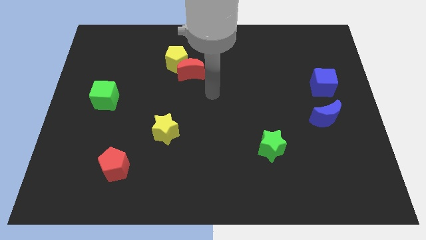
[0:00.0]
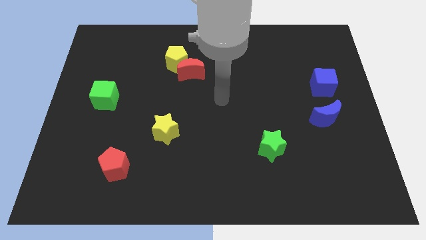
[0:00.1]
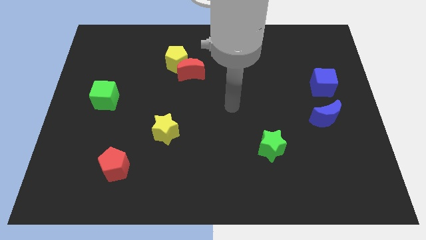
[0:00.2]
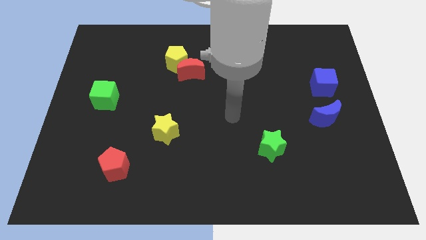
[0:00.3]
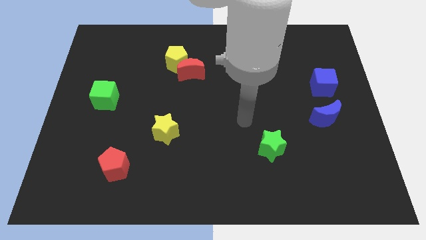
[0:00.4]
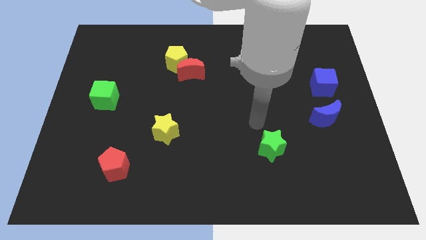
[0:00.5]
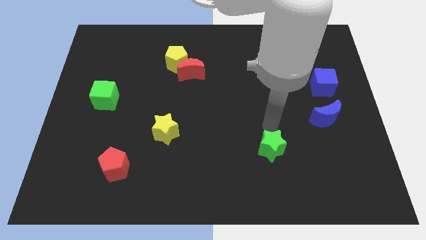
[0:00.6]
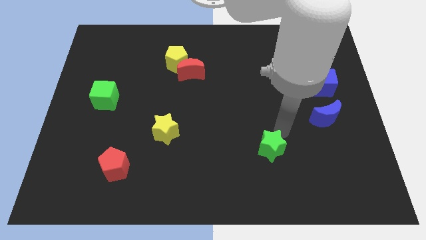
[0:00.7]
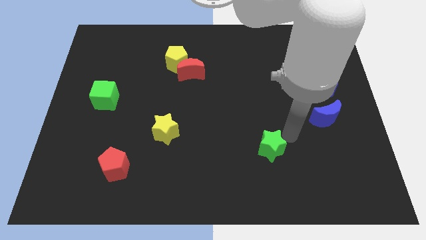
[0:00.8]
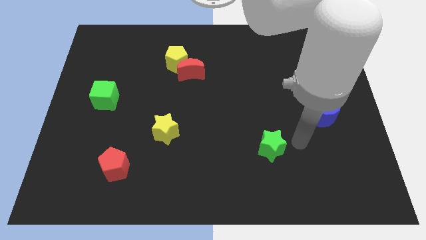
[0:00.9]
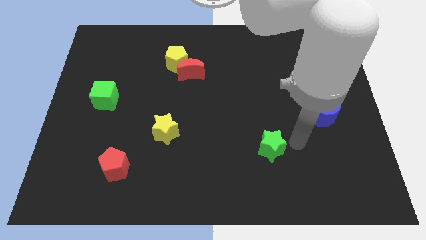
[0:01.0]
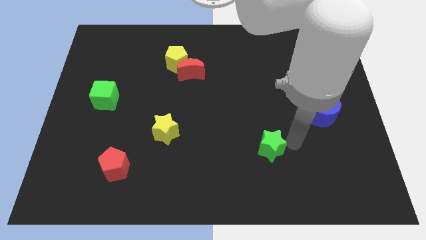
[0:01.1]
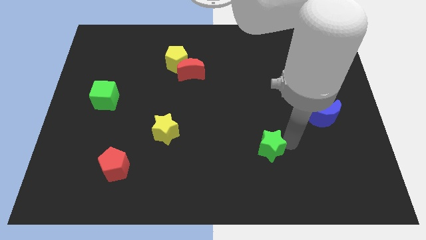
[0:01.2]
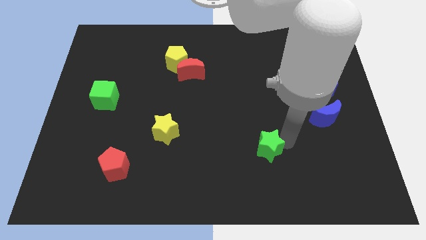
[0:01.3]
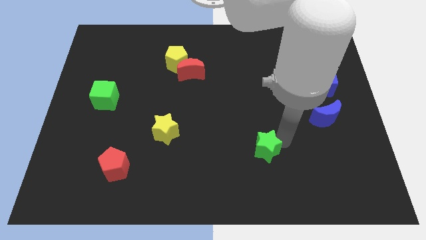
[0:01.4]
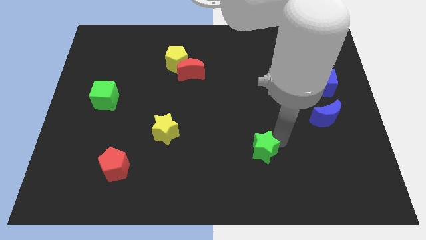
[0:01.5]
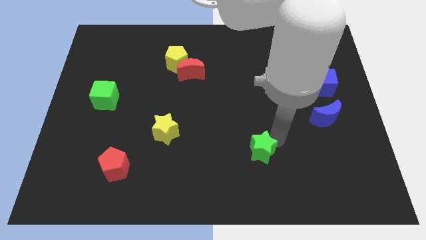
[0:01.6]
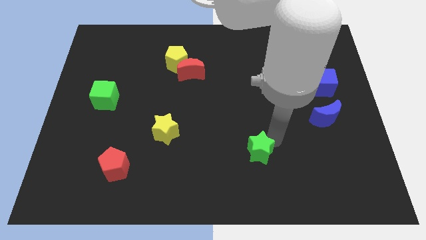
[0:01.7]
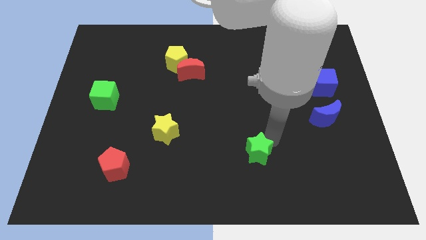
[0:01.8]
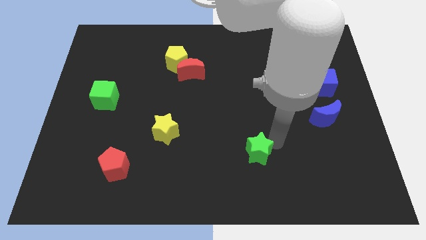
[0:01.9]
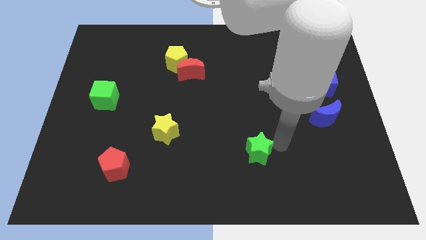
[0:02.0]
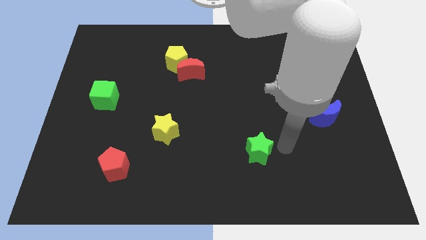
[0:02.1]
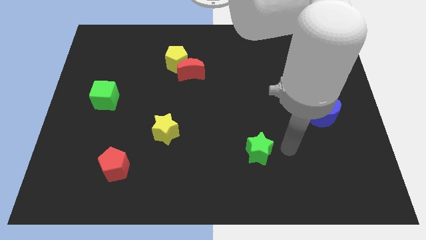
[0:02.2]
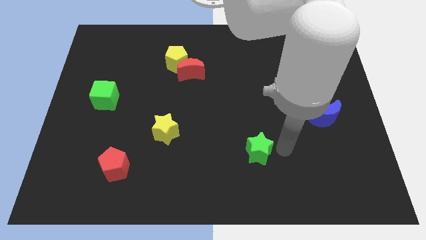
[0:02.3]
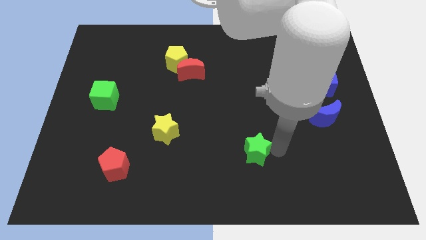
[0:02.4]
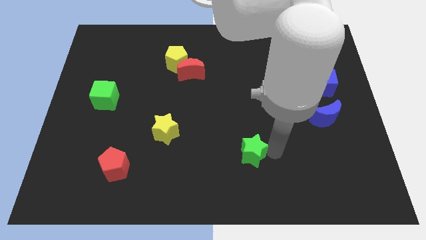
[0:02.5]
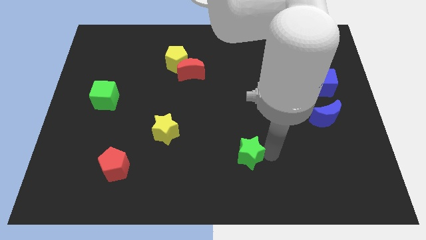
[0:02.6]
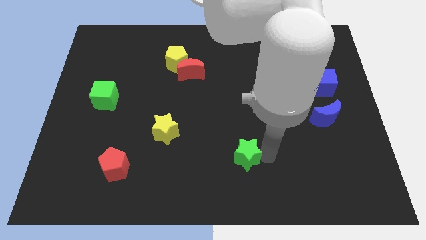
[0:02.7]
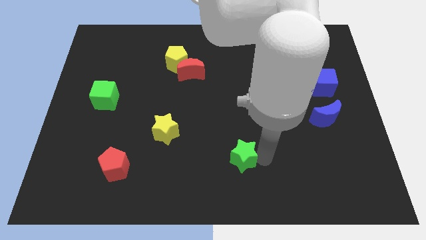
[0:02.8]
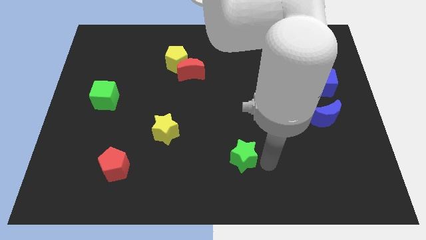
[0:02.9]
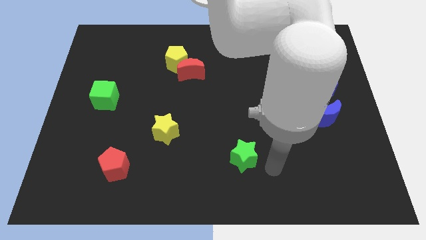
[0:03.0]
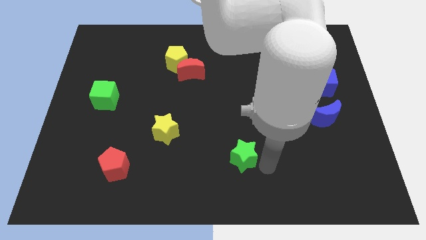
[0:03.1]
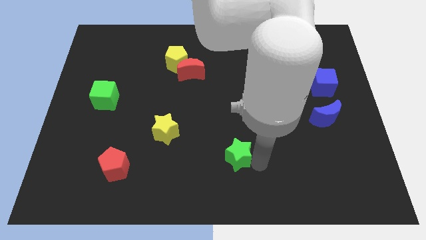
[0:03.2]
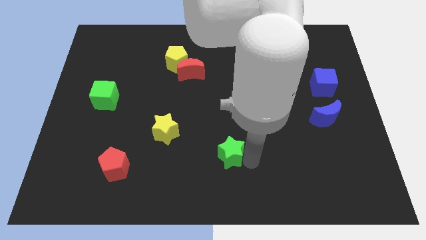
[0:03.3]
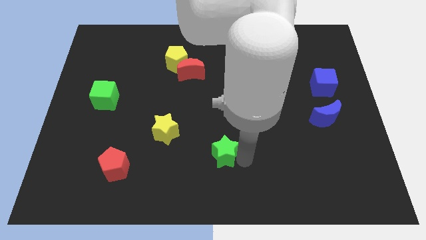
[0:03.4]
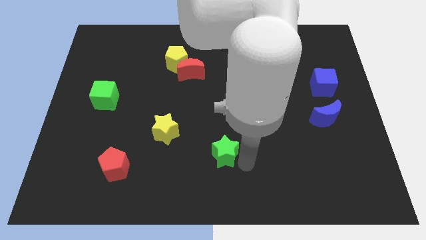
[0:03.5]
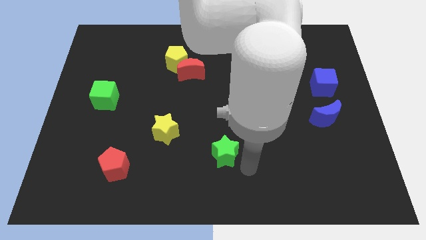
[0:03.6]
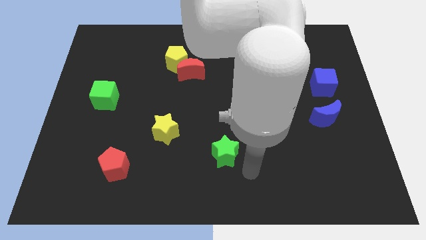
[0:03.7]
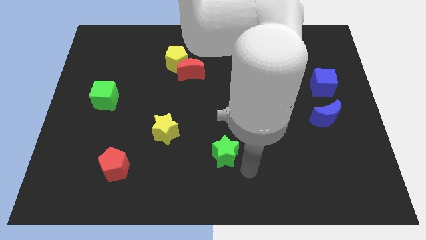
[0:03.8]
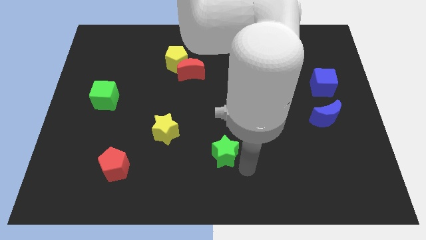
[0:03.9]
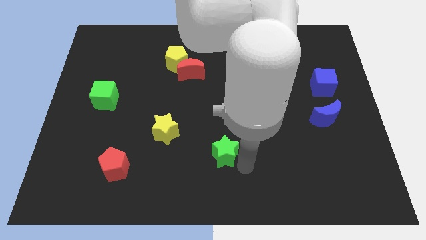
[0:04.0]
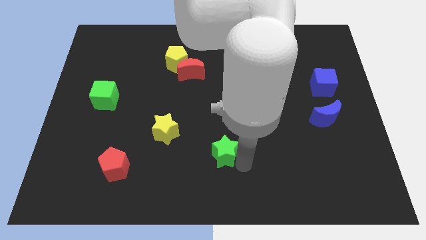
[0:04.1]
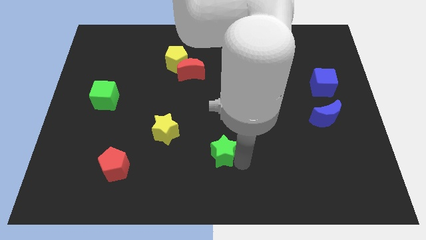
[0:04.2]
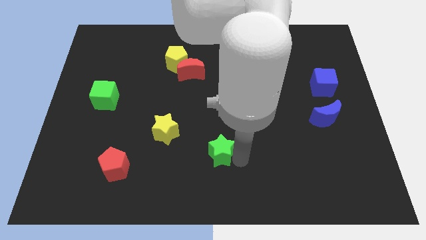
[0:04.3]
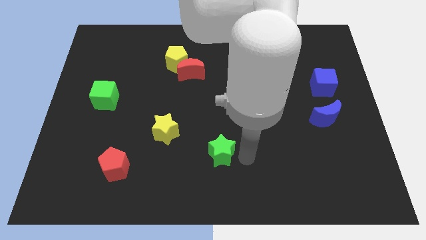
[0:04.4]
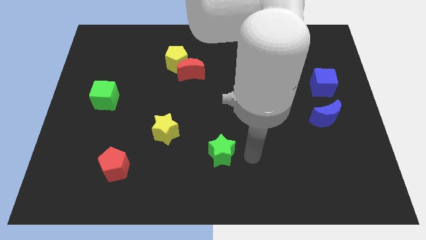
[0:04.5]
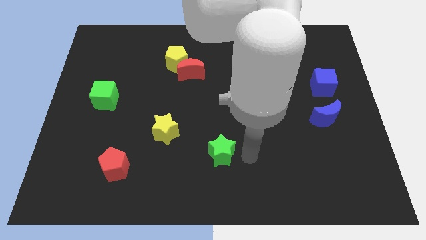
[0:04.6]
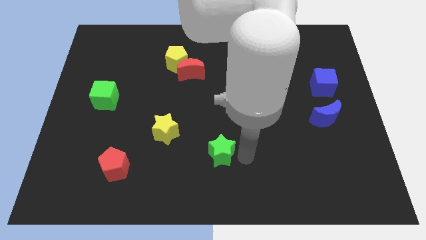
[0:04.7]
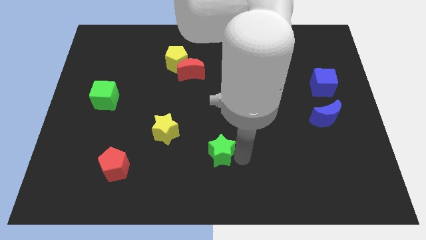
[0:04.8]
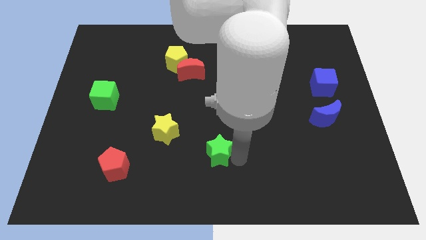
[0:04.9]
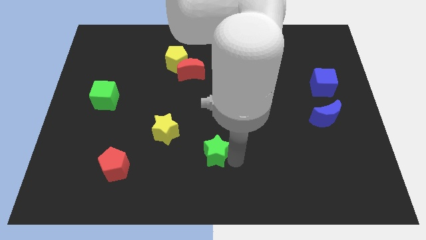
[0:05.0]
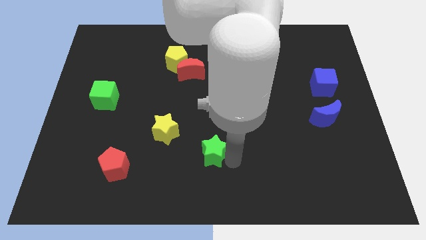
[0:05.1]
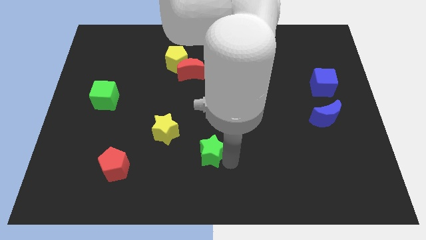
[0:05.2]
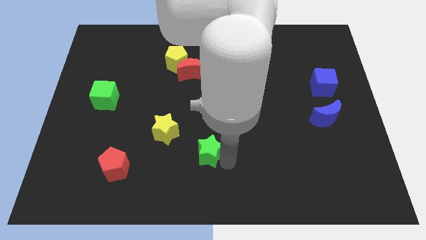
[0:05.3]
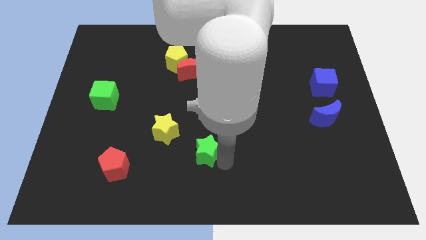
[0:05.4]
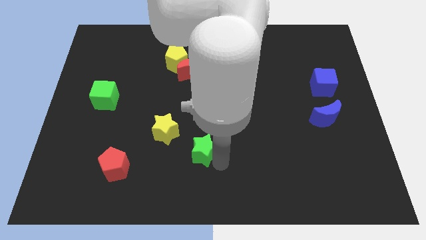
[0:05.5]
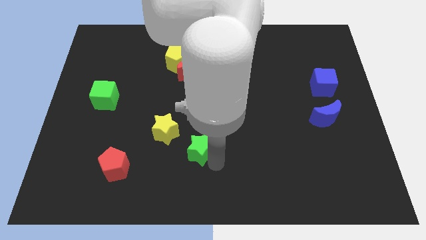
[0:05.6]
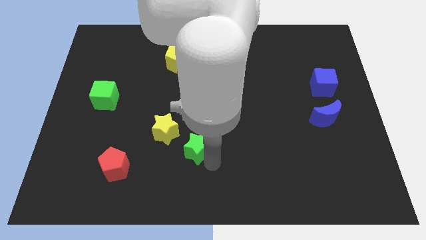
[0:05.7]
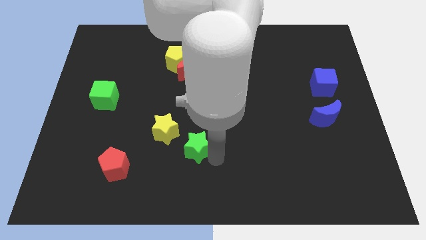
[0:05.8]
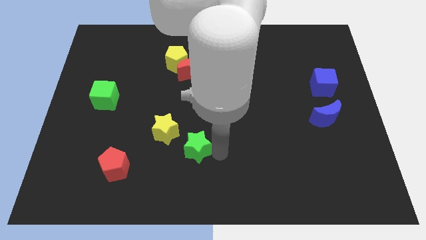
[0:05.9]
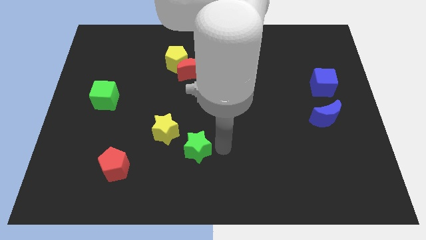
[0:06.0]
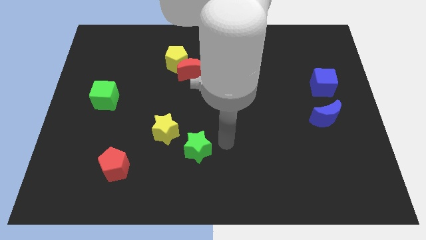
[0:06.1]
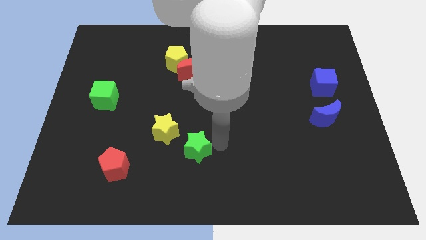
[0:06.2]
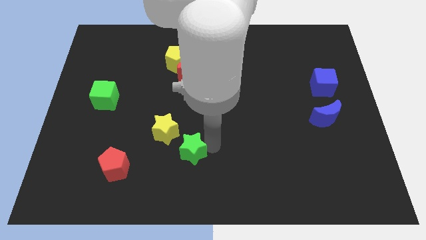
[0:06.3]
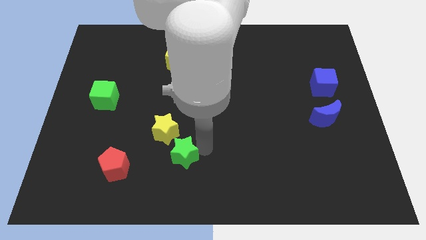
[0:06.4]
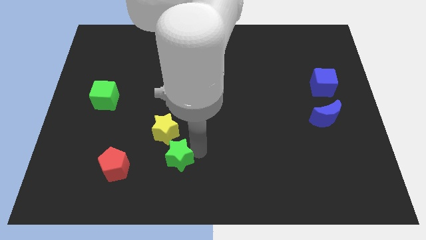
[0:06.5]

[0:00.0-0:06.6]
move the green star to the left

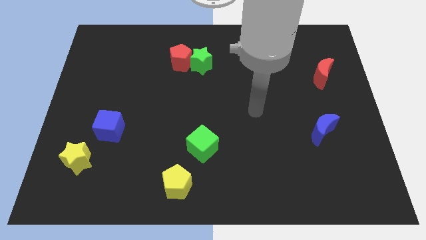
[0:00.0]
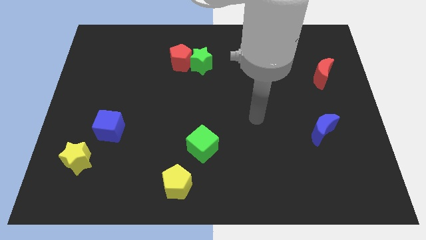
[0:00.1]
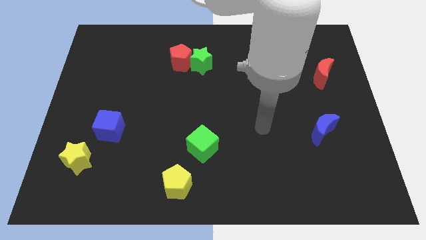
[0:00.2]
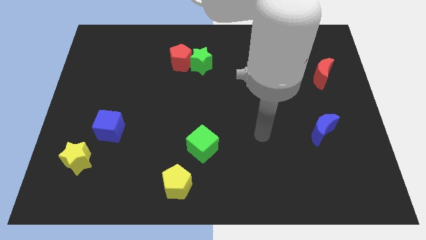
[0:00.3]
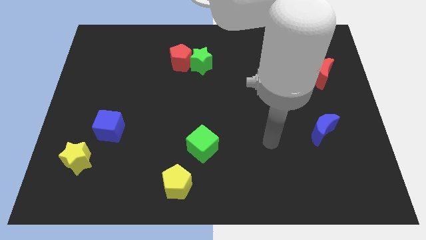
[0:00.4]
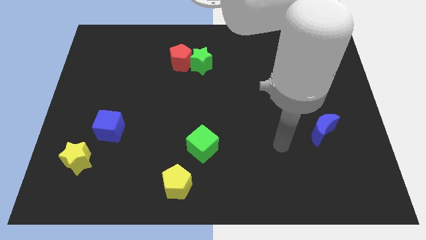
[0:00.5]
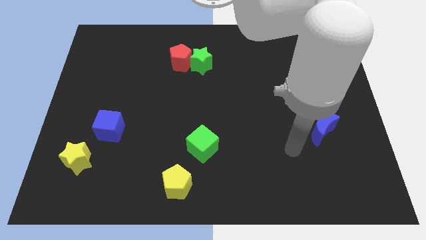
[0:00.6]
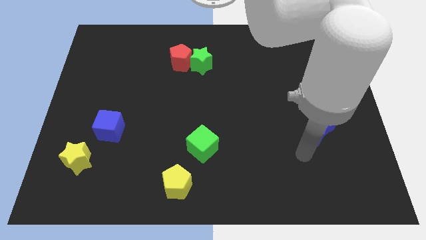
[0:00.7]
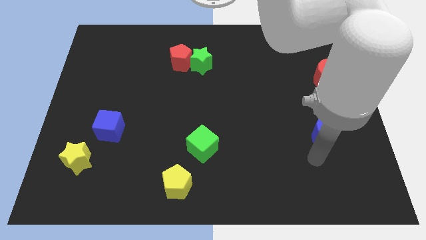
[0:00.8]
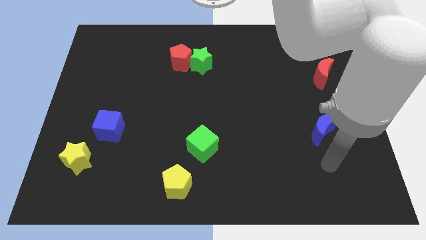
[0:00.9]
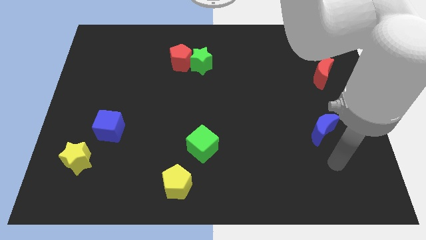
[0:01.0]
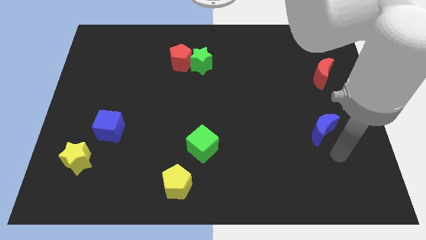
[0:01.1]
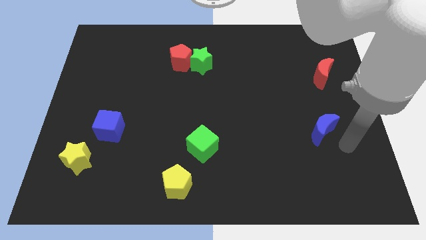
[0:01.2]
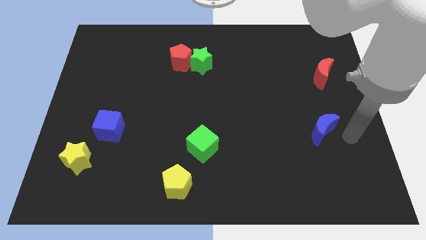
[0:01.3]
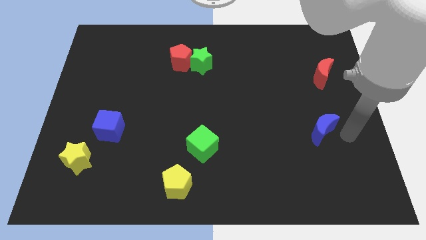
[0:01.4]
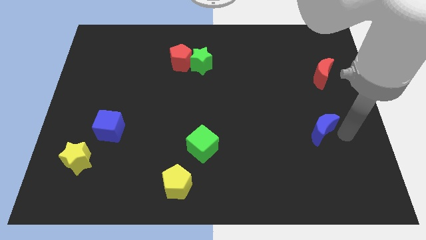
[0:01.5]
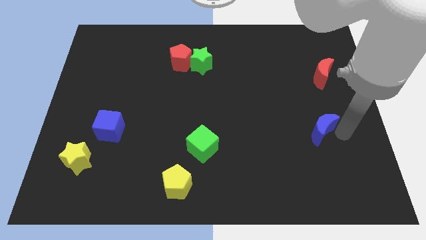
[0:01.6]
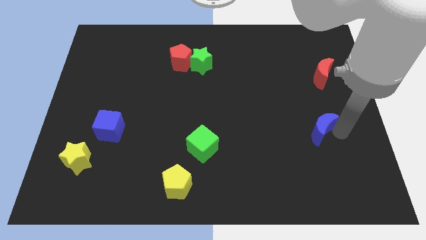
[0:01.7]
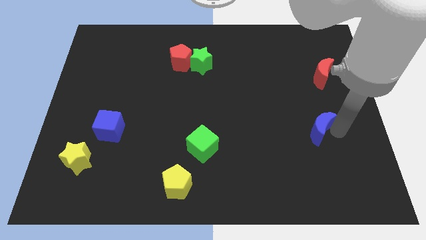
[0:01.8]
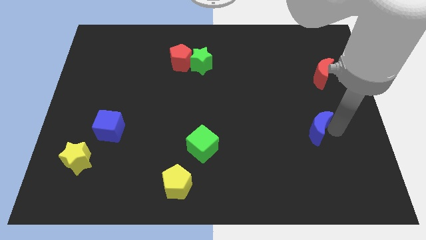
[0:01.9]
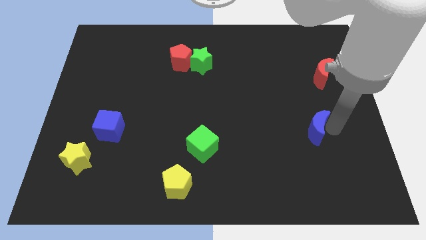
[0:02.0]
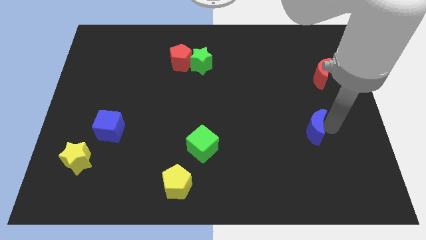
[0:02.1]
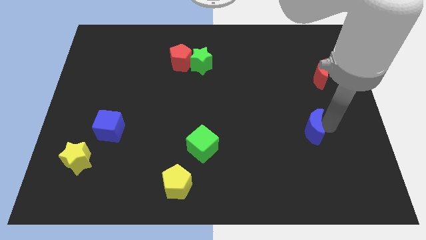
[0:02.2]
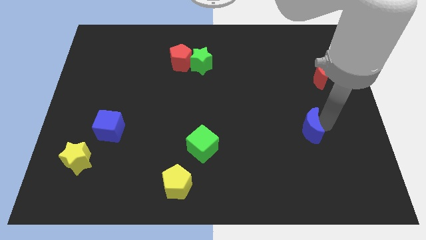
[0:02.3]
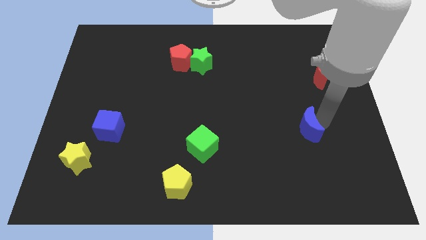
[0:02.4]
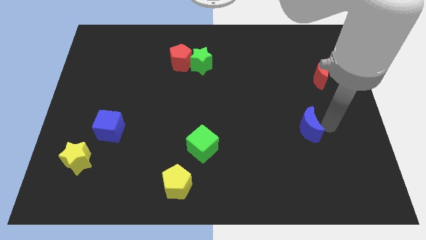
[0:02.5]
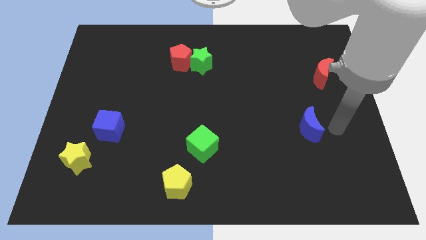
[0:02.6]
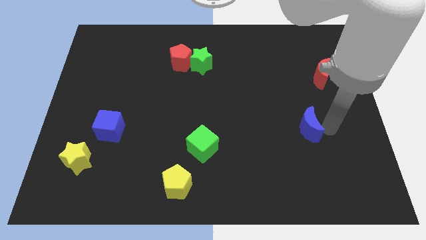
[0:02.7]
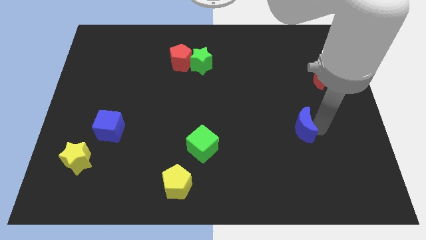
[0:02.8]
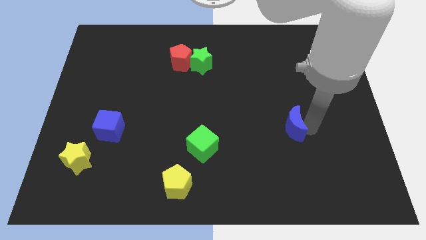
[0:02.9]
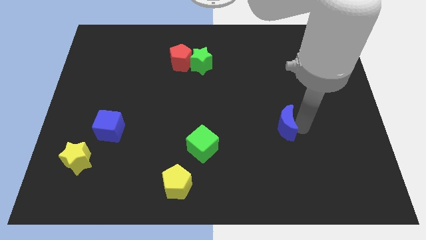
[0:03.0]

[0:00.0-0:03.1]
push the blue moon left slightly
